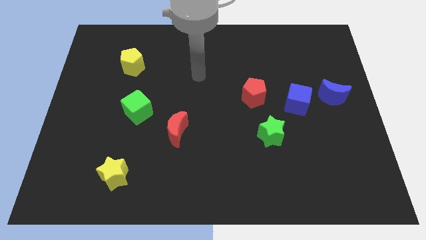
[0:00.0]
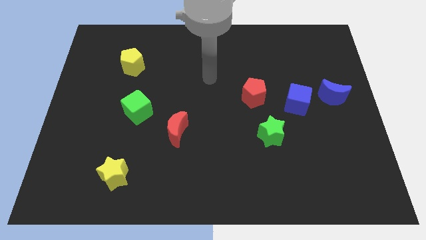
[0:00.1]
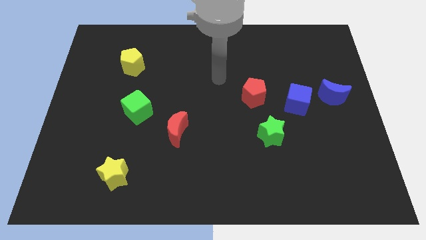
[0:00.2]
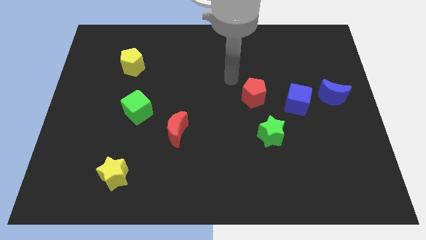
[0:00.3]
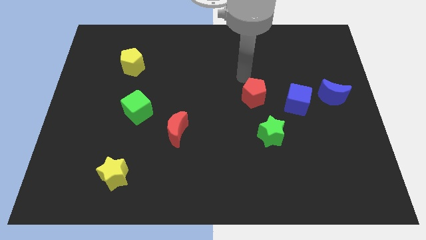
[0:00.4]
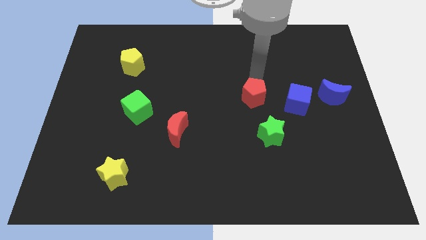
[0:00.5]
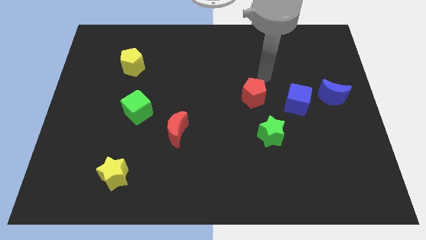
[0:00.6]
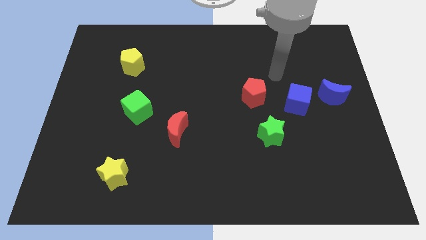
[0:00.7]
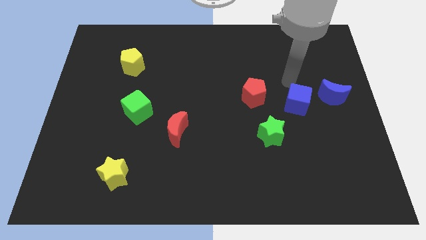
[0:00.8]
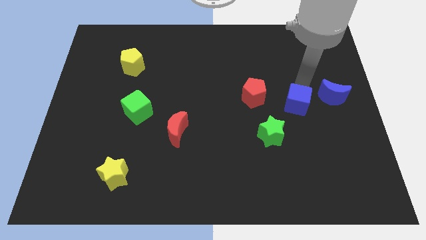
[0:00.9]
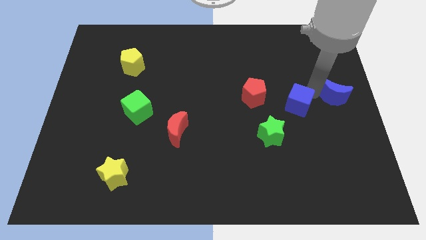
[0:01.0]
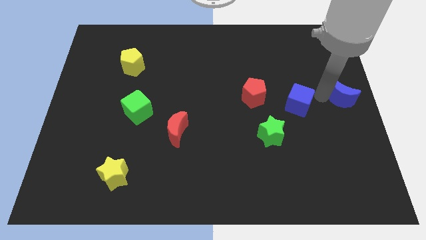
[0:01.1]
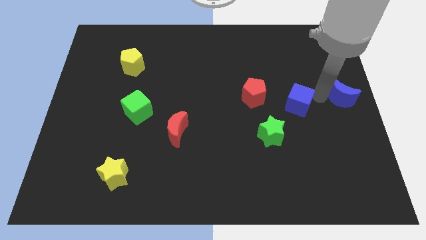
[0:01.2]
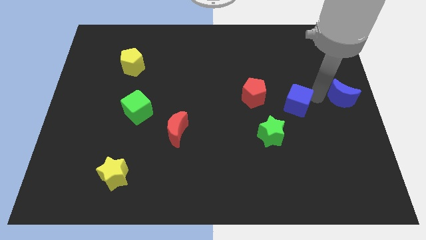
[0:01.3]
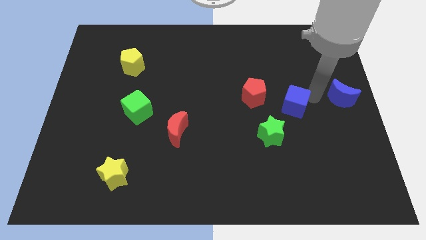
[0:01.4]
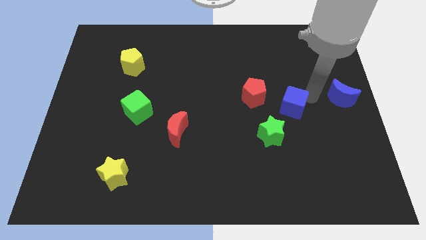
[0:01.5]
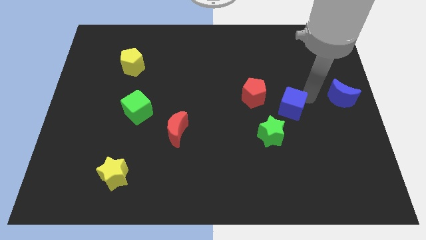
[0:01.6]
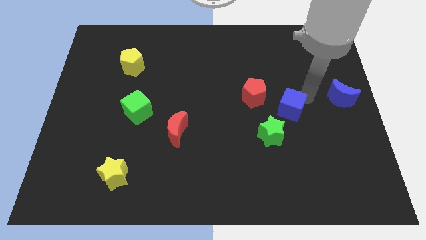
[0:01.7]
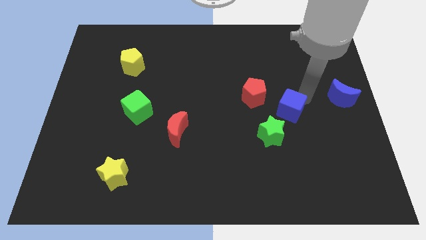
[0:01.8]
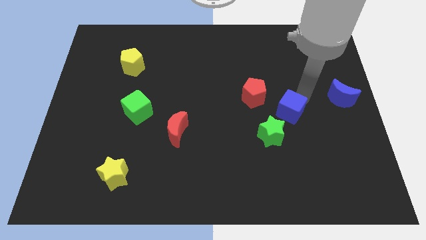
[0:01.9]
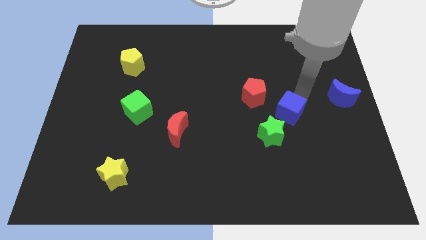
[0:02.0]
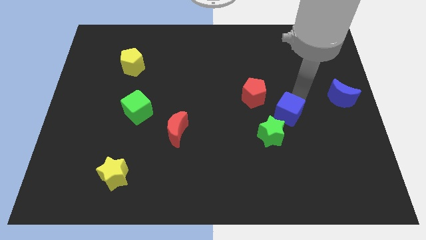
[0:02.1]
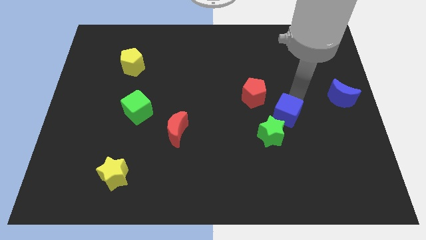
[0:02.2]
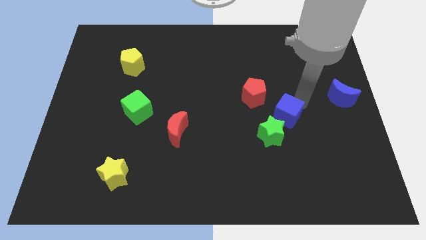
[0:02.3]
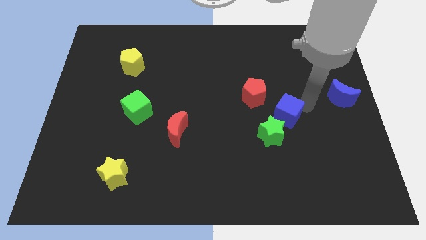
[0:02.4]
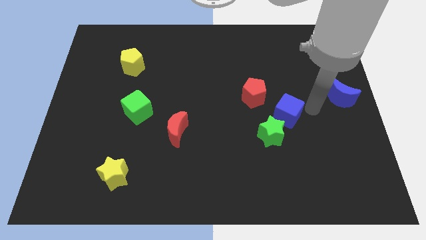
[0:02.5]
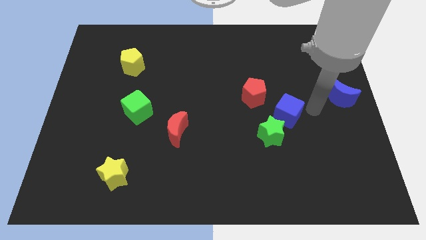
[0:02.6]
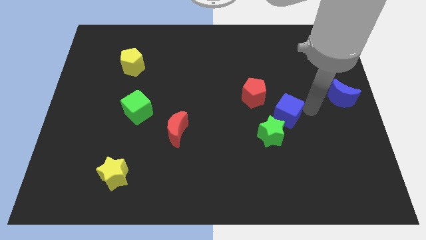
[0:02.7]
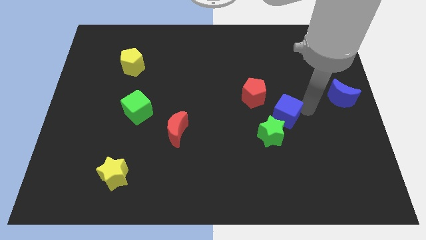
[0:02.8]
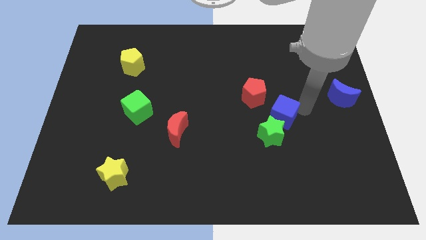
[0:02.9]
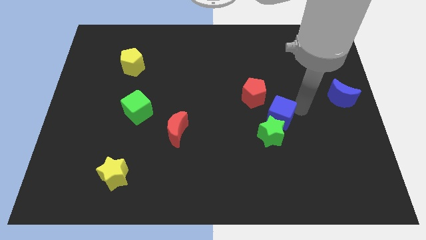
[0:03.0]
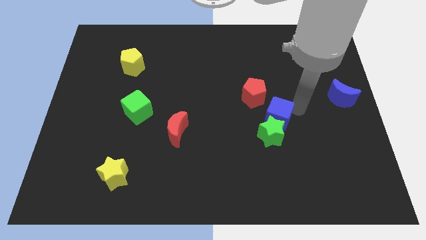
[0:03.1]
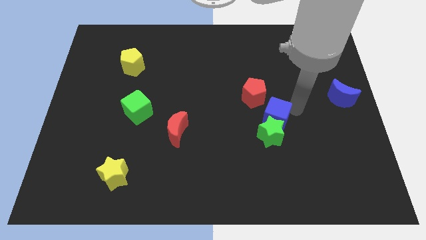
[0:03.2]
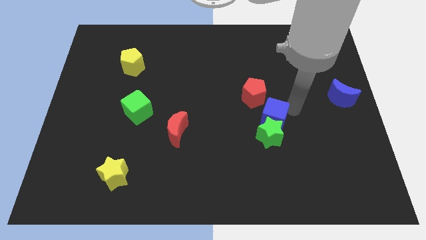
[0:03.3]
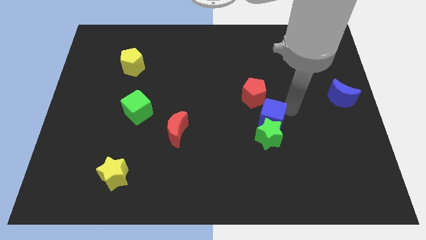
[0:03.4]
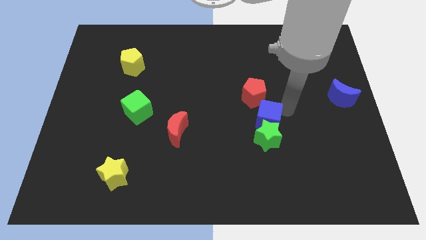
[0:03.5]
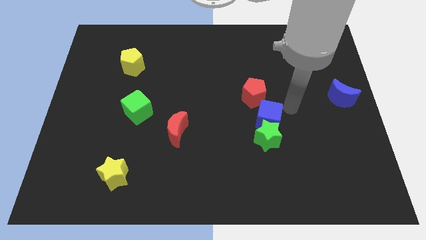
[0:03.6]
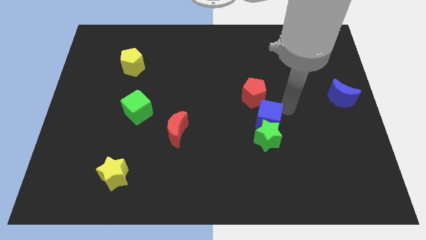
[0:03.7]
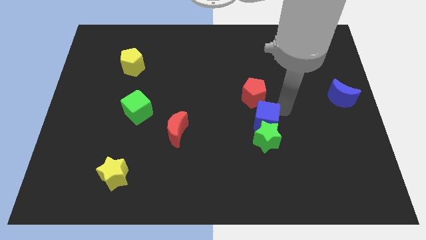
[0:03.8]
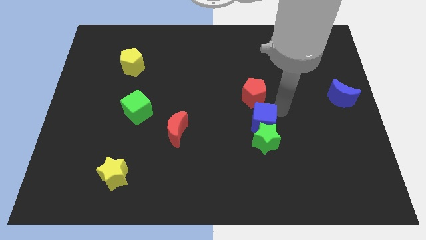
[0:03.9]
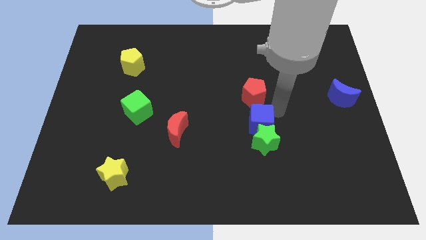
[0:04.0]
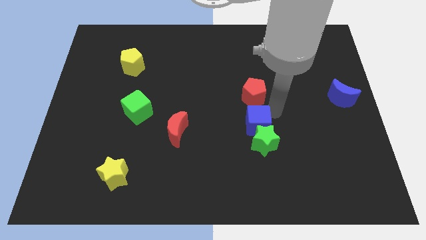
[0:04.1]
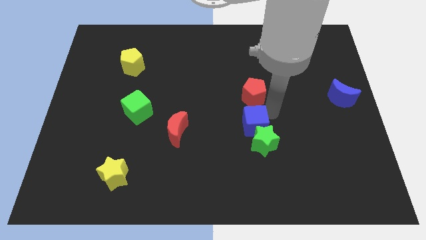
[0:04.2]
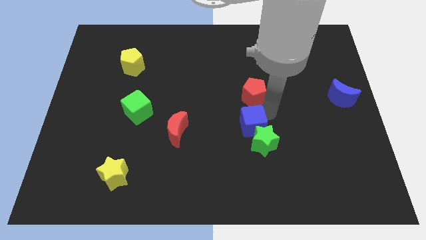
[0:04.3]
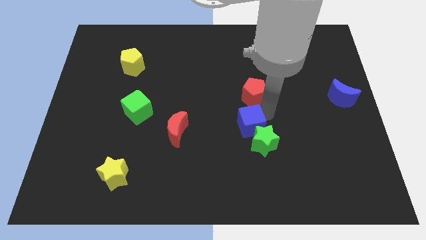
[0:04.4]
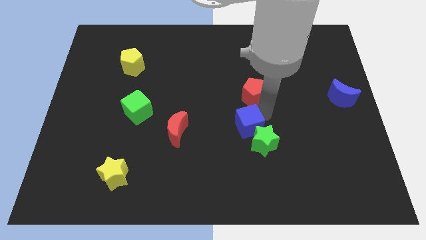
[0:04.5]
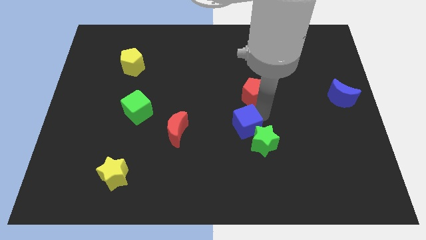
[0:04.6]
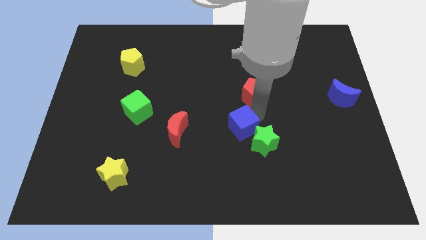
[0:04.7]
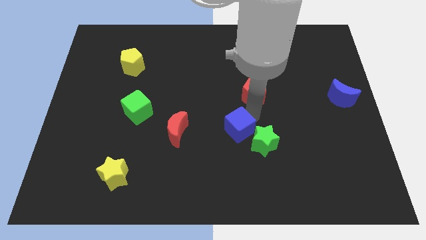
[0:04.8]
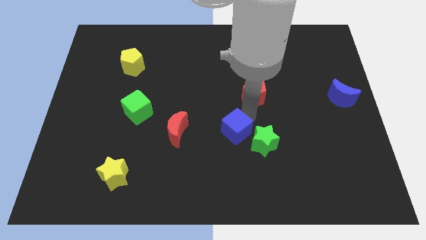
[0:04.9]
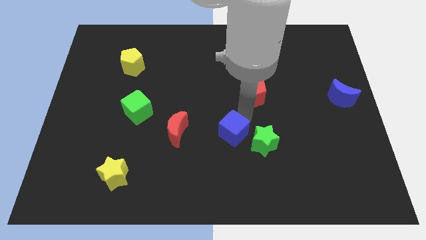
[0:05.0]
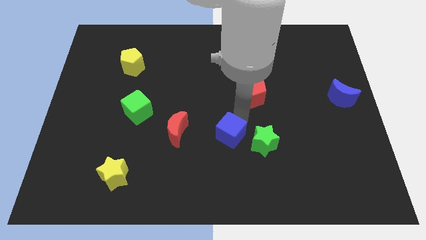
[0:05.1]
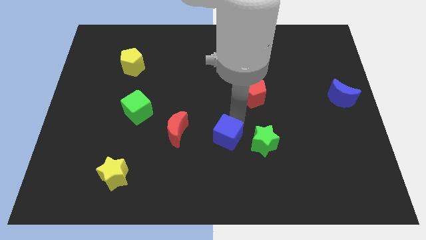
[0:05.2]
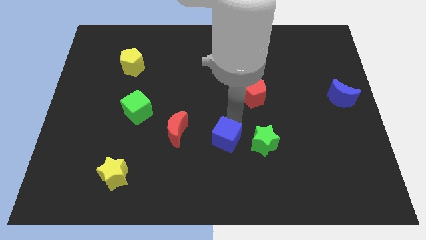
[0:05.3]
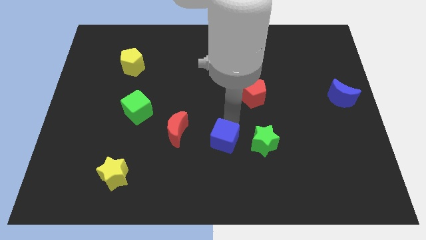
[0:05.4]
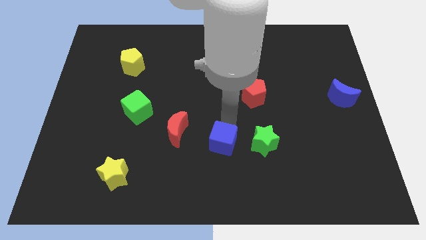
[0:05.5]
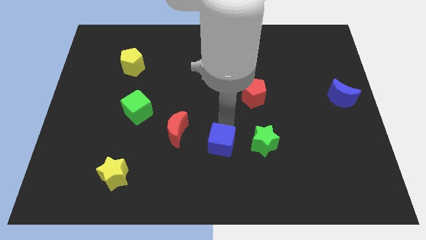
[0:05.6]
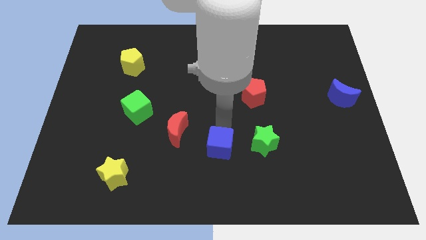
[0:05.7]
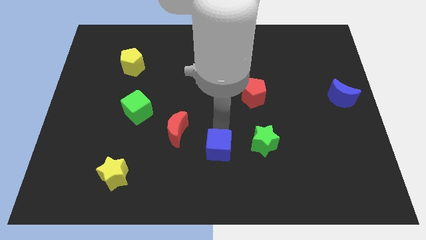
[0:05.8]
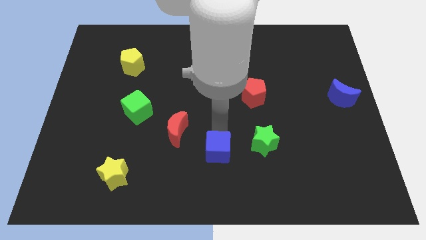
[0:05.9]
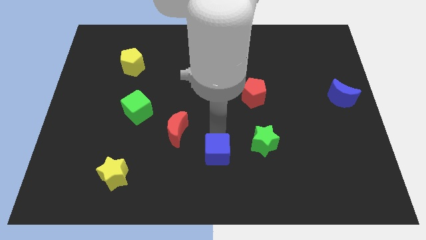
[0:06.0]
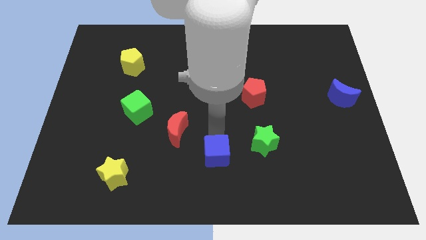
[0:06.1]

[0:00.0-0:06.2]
push the blue cube to the bottom side
